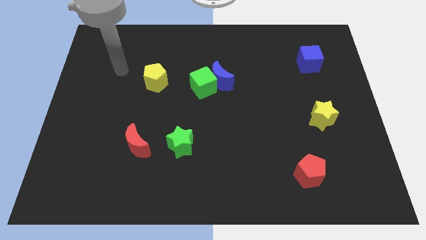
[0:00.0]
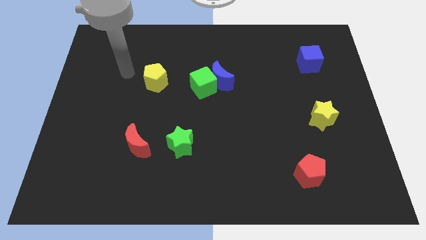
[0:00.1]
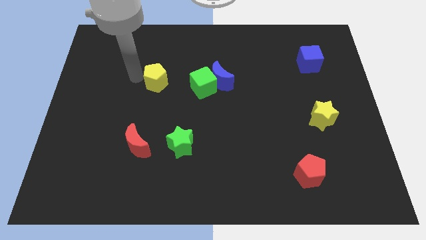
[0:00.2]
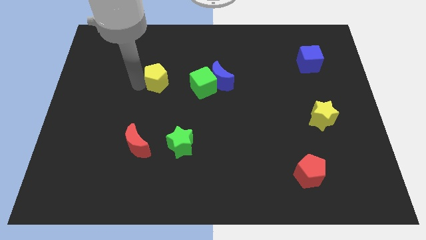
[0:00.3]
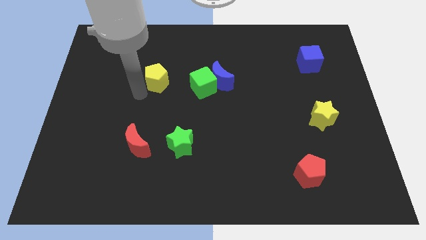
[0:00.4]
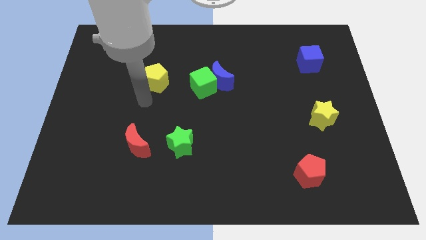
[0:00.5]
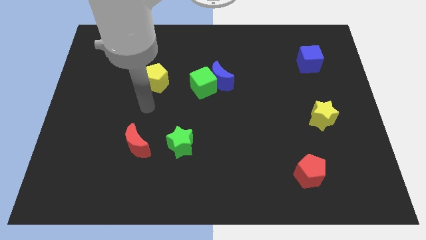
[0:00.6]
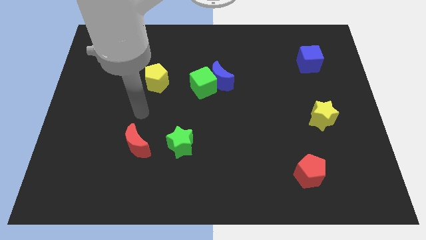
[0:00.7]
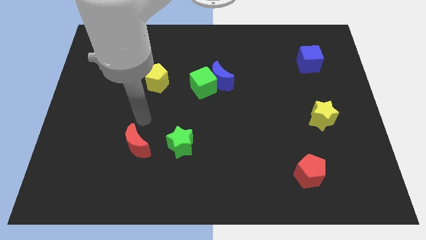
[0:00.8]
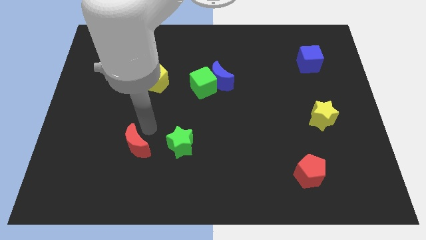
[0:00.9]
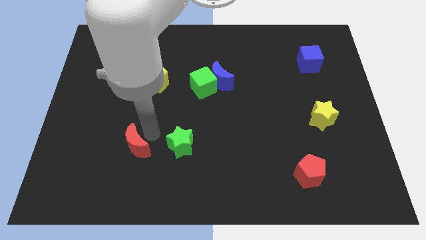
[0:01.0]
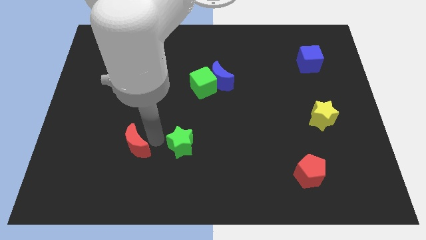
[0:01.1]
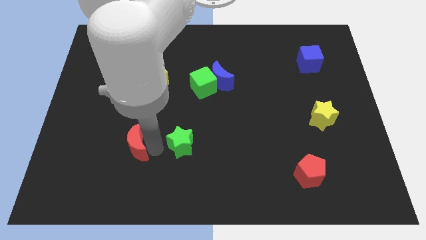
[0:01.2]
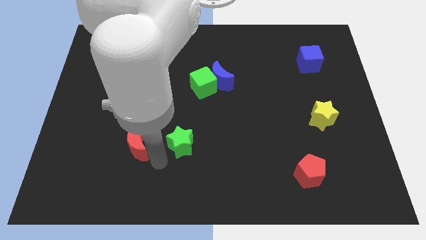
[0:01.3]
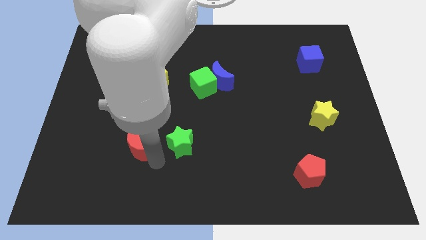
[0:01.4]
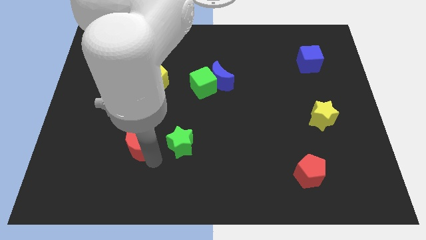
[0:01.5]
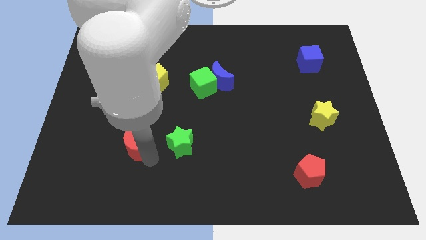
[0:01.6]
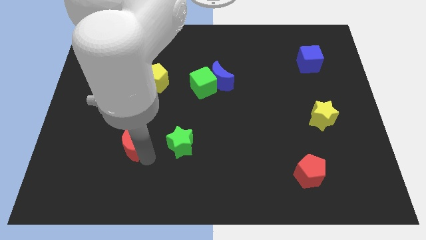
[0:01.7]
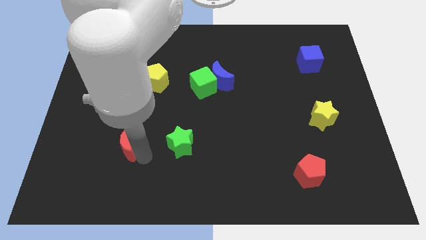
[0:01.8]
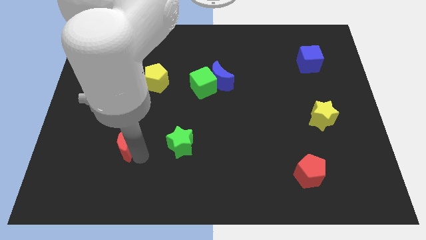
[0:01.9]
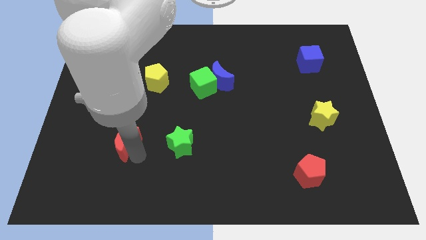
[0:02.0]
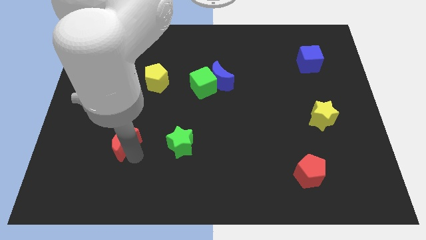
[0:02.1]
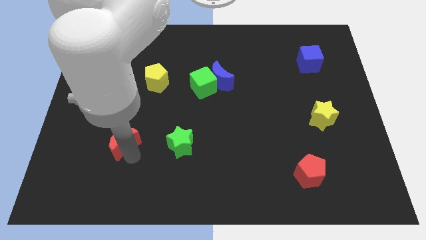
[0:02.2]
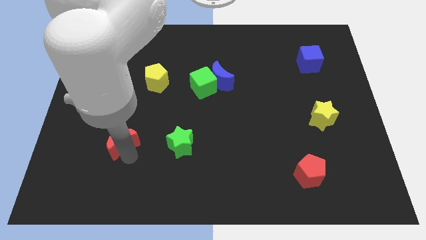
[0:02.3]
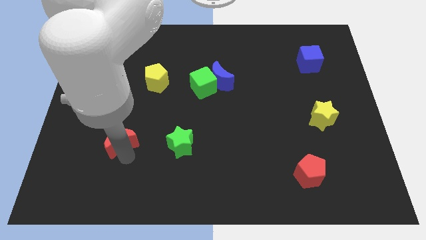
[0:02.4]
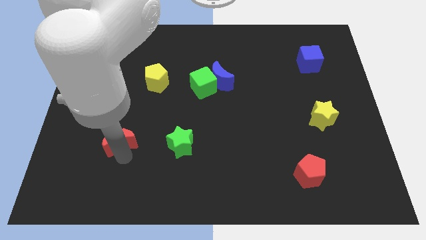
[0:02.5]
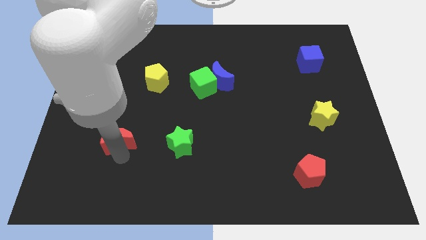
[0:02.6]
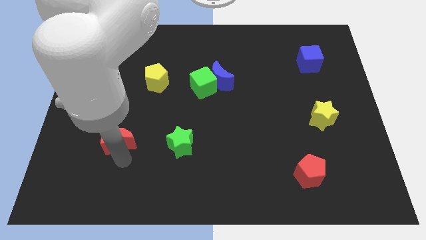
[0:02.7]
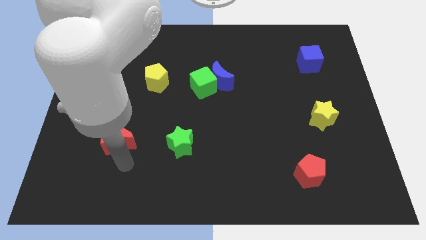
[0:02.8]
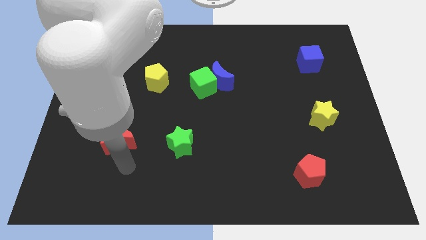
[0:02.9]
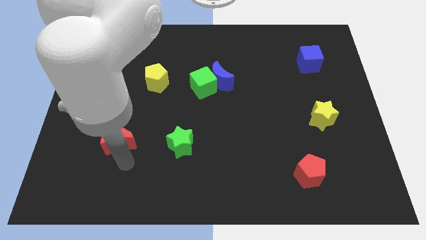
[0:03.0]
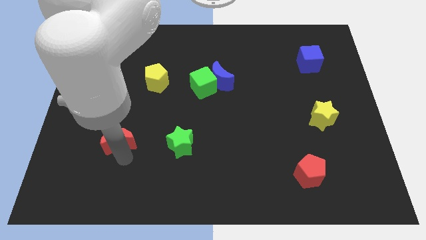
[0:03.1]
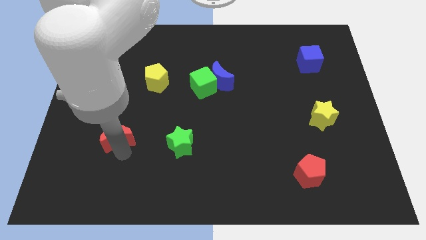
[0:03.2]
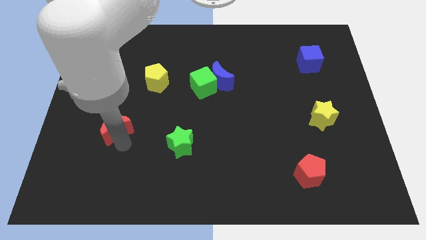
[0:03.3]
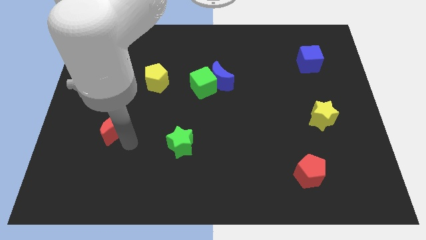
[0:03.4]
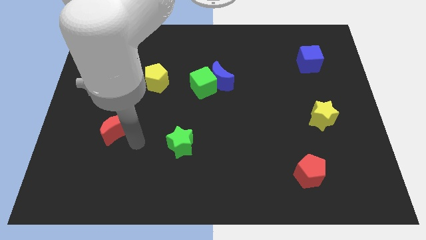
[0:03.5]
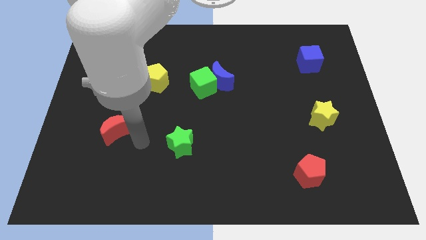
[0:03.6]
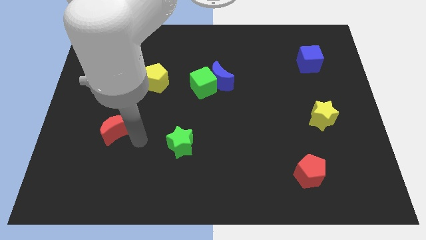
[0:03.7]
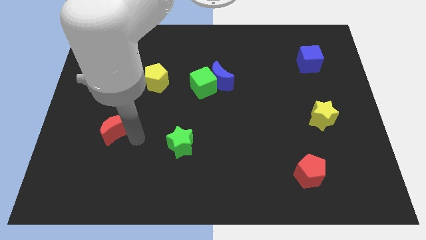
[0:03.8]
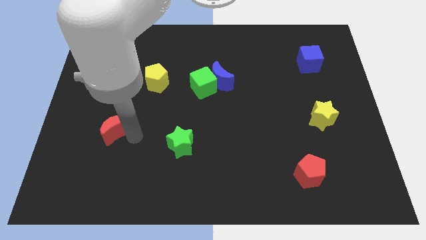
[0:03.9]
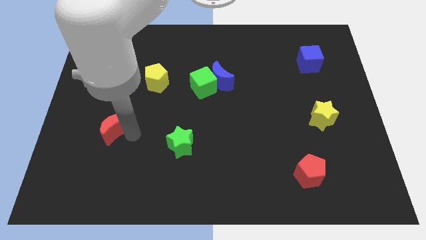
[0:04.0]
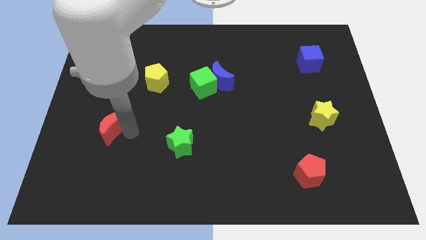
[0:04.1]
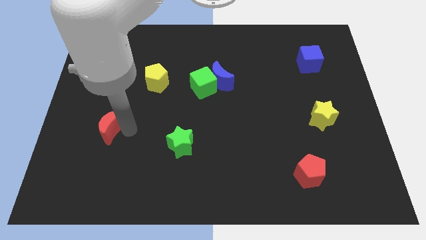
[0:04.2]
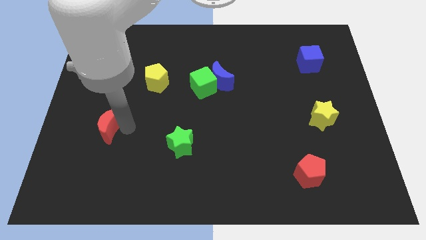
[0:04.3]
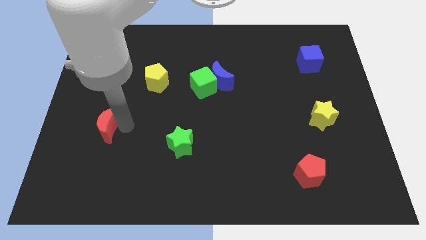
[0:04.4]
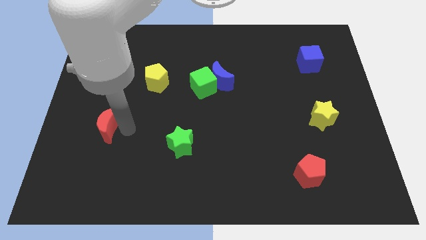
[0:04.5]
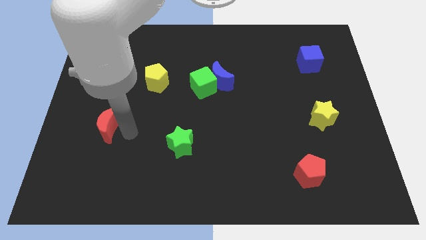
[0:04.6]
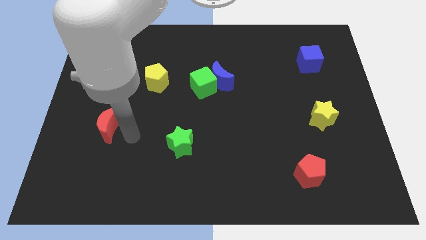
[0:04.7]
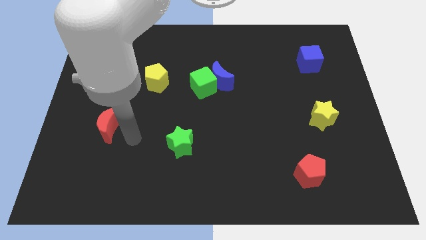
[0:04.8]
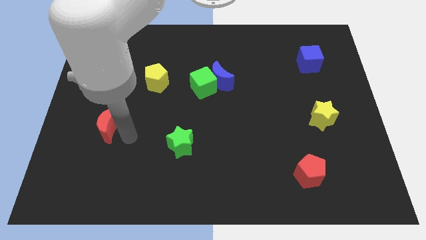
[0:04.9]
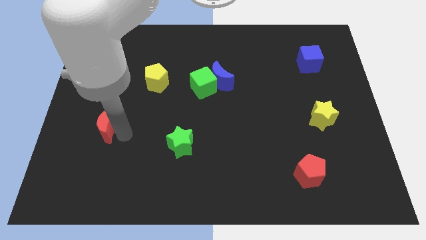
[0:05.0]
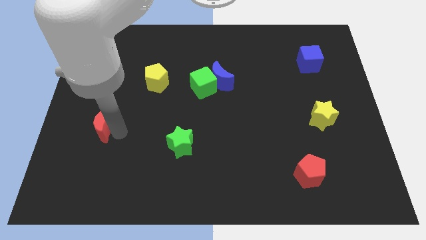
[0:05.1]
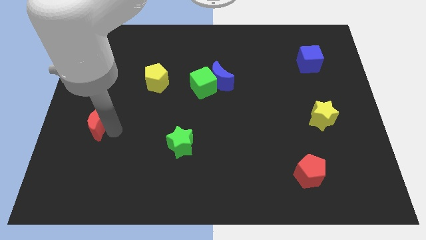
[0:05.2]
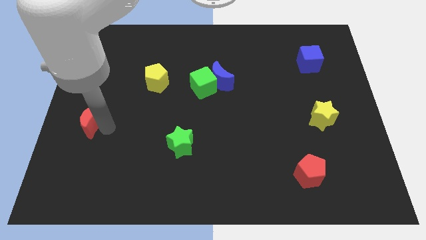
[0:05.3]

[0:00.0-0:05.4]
put the red moon to the left side of the board
